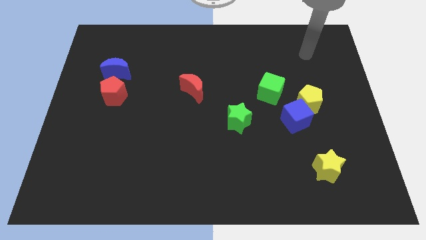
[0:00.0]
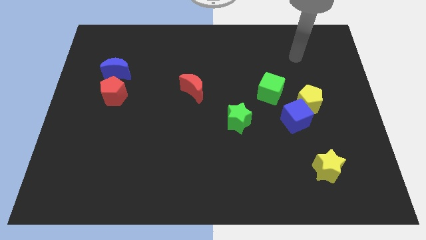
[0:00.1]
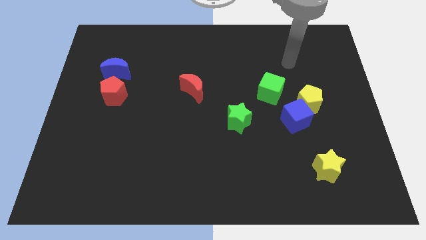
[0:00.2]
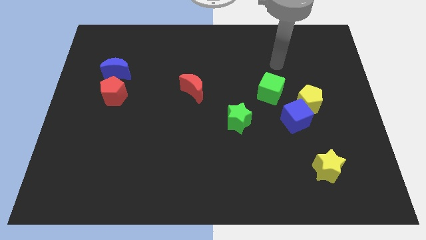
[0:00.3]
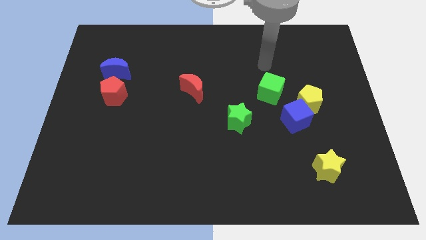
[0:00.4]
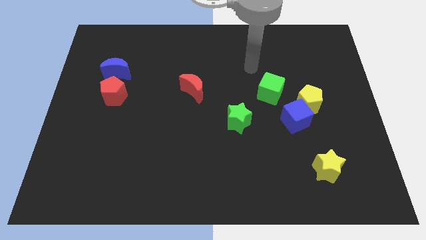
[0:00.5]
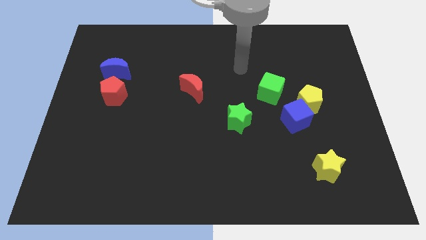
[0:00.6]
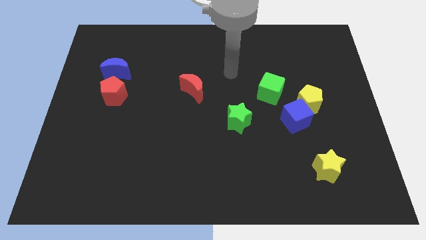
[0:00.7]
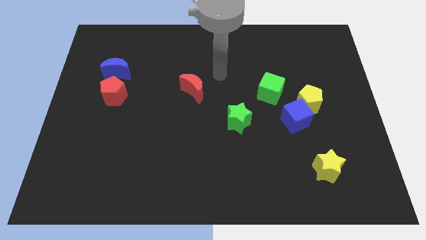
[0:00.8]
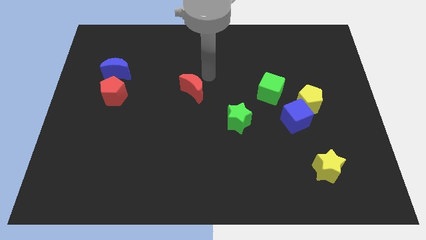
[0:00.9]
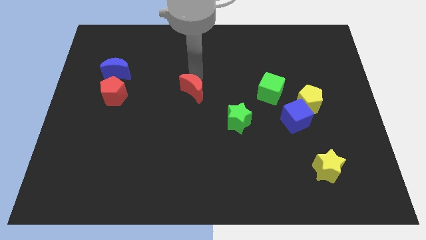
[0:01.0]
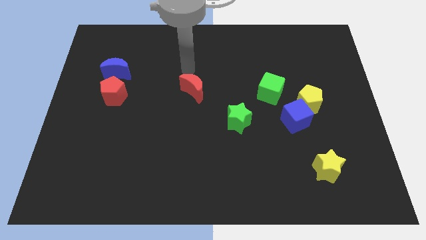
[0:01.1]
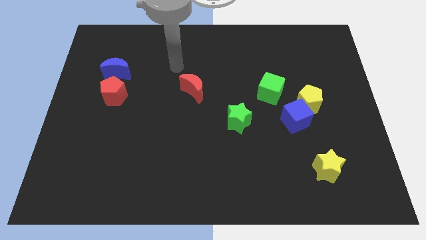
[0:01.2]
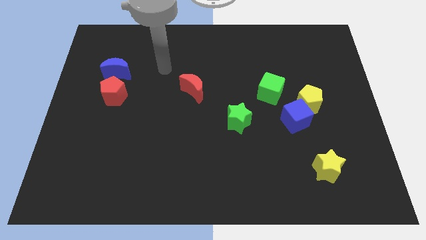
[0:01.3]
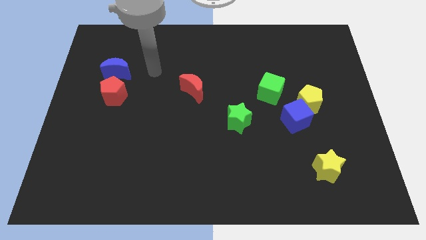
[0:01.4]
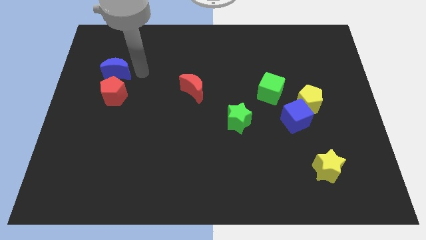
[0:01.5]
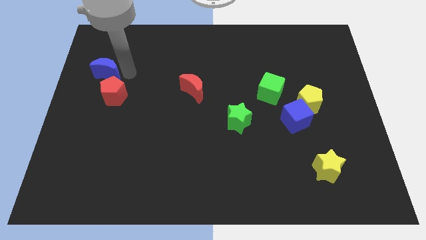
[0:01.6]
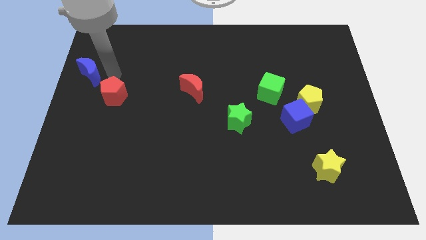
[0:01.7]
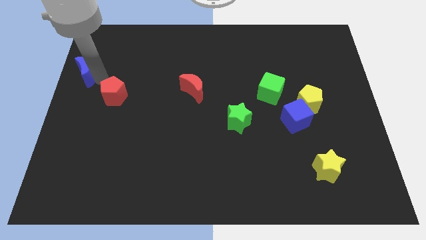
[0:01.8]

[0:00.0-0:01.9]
separate the red pentagon from the blue moon

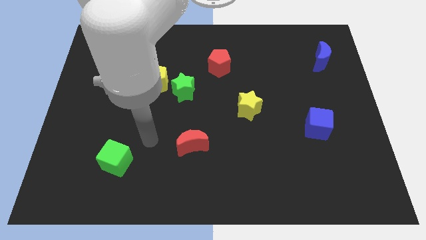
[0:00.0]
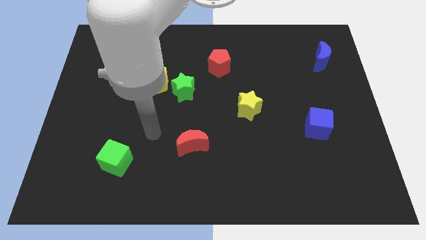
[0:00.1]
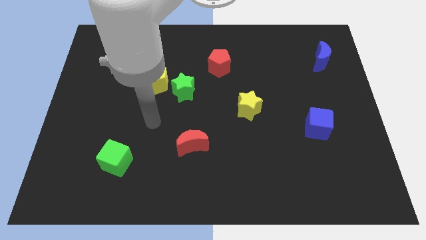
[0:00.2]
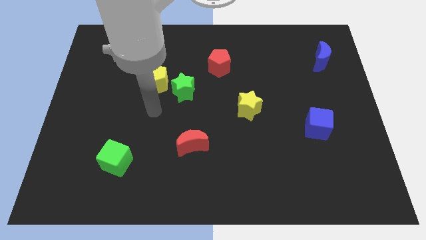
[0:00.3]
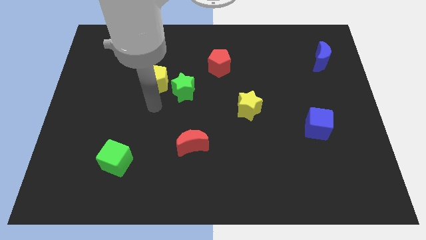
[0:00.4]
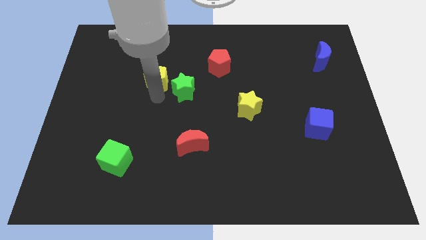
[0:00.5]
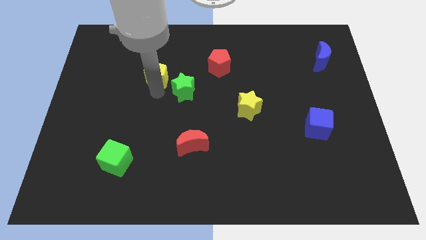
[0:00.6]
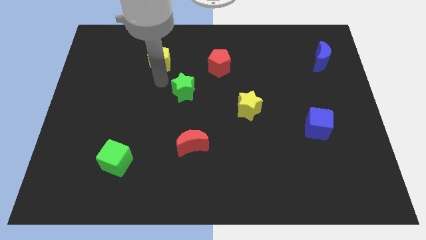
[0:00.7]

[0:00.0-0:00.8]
separate the green star from the yellow pentagon

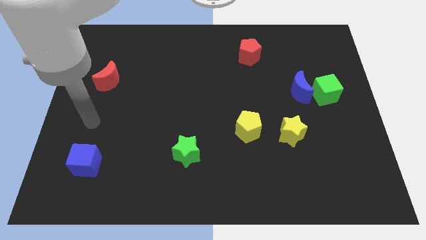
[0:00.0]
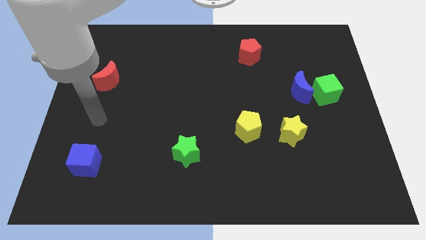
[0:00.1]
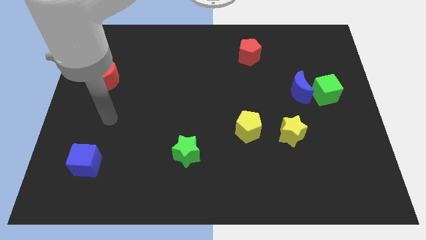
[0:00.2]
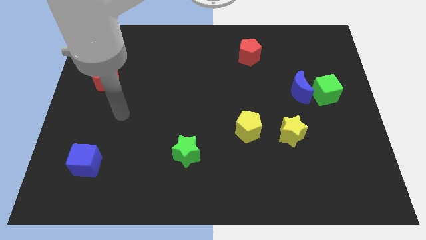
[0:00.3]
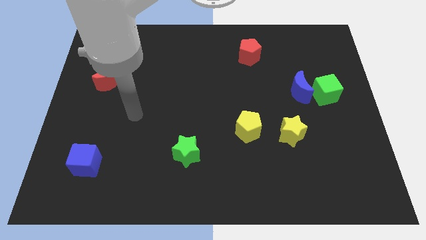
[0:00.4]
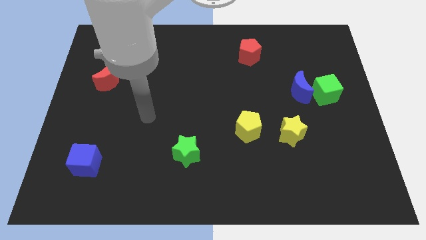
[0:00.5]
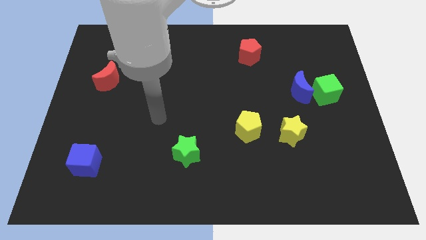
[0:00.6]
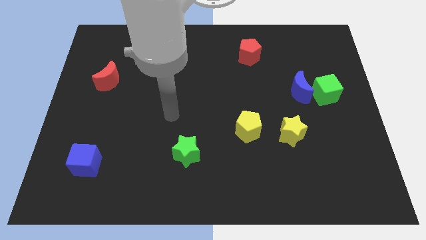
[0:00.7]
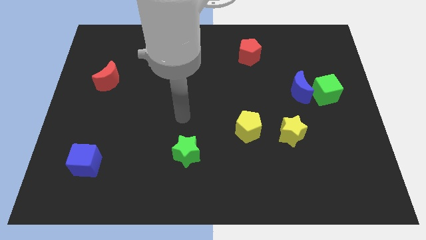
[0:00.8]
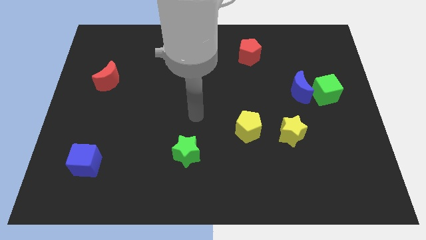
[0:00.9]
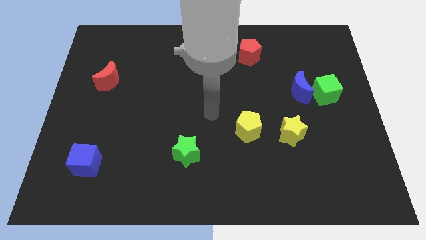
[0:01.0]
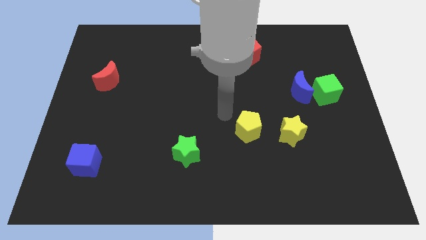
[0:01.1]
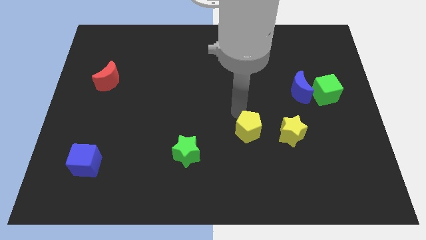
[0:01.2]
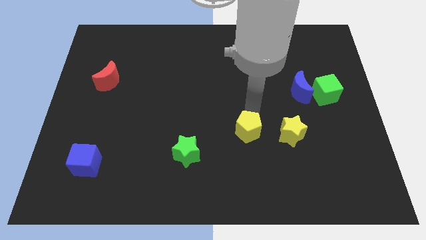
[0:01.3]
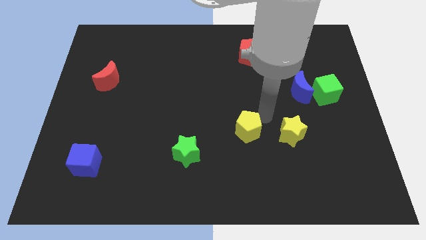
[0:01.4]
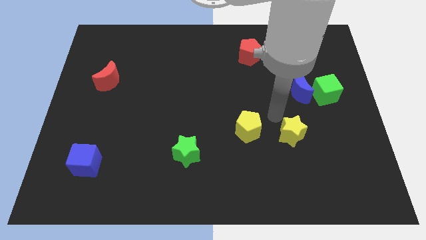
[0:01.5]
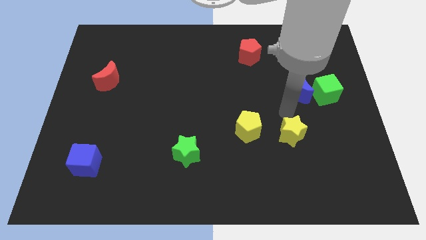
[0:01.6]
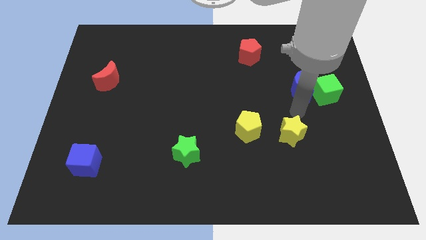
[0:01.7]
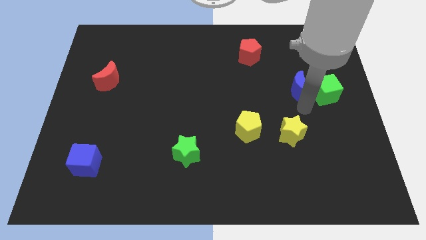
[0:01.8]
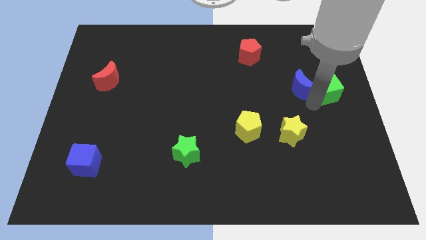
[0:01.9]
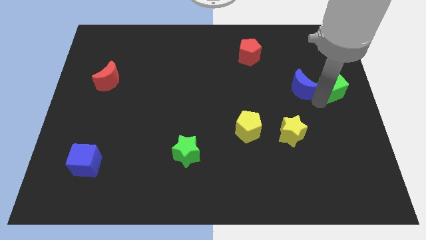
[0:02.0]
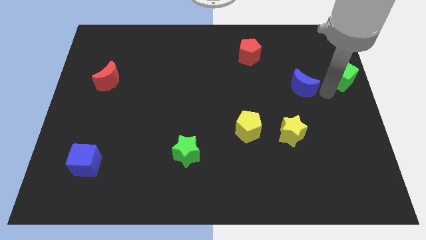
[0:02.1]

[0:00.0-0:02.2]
separate the blue moon from the green cube

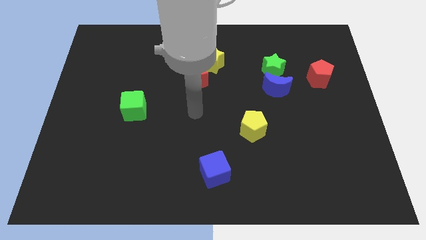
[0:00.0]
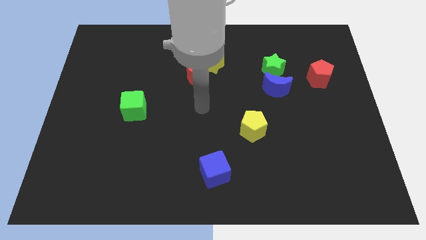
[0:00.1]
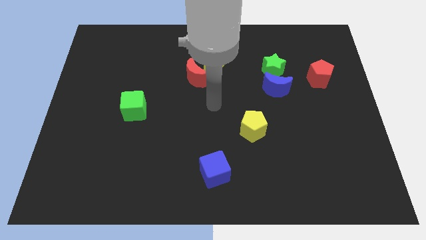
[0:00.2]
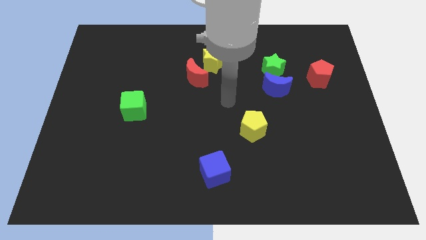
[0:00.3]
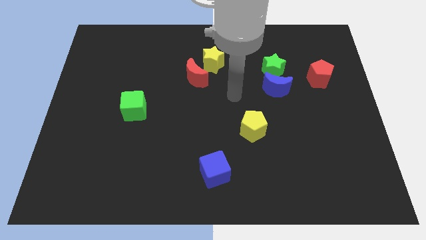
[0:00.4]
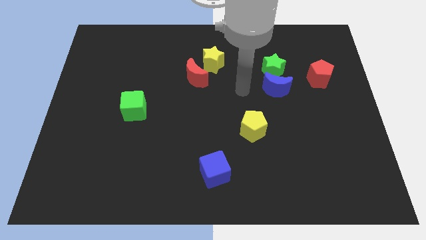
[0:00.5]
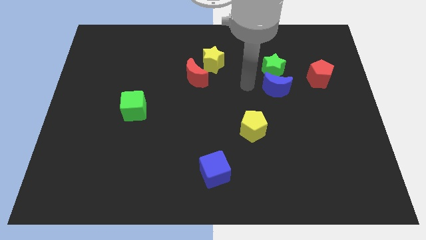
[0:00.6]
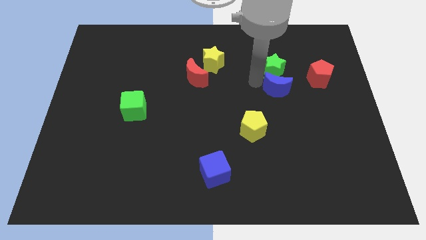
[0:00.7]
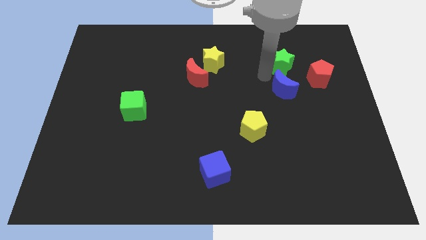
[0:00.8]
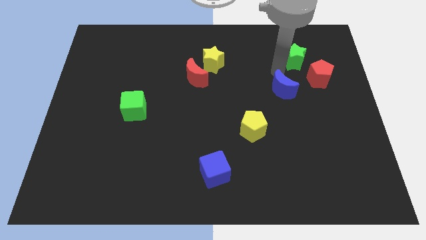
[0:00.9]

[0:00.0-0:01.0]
separate the blue moon from the green star

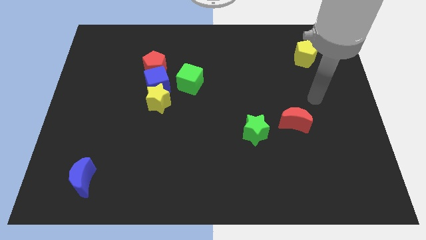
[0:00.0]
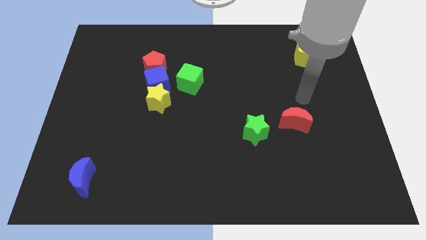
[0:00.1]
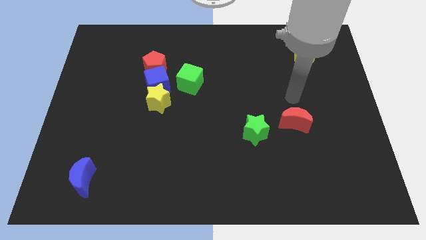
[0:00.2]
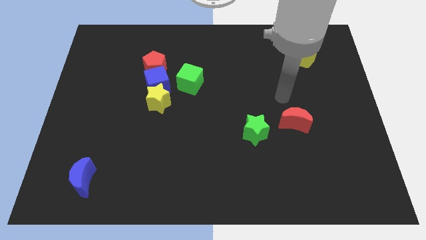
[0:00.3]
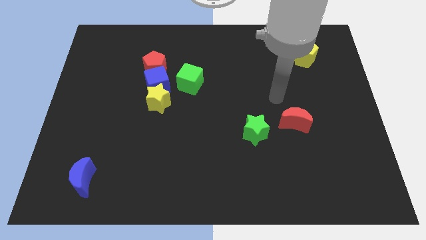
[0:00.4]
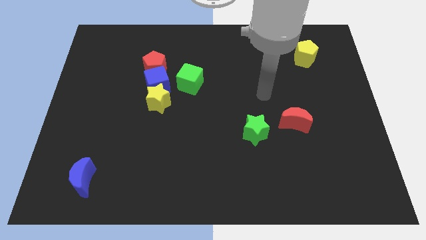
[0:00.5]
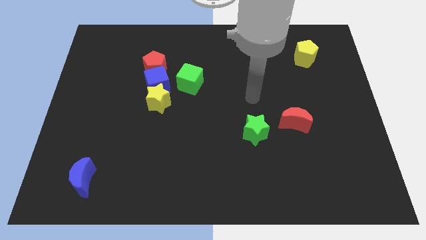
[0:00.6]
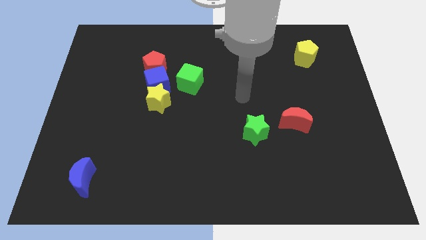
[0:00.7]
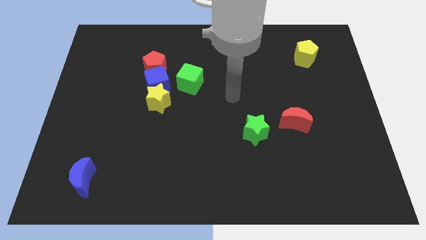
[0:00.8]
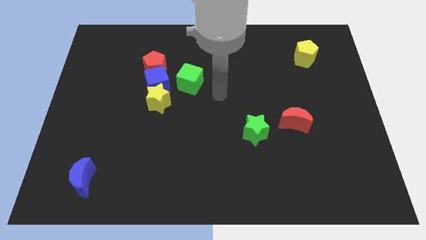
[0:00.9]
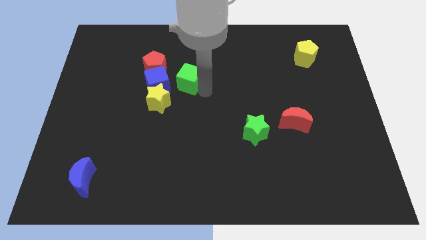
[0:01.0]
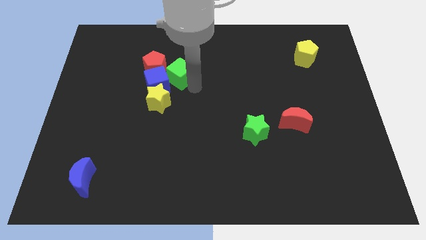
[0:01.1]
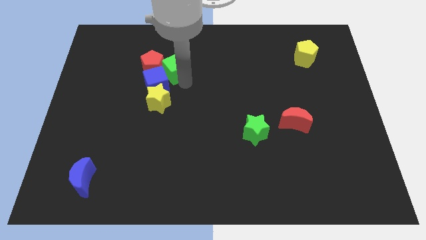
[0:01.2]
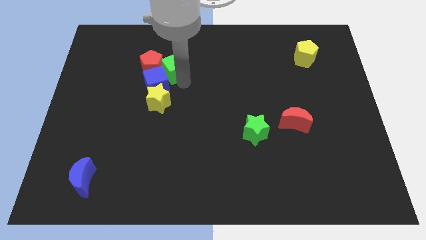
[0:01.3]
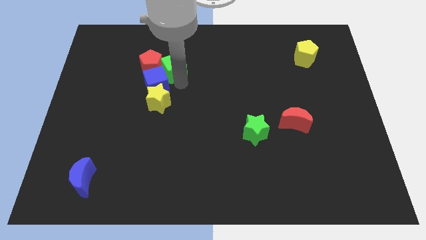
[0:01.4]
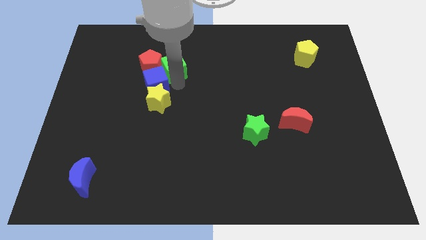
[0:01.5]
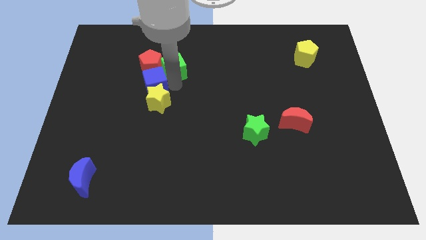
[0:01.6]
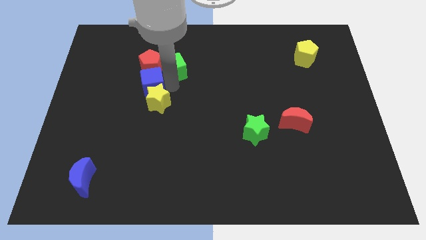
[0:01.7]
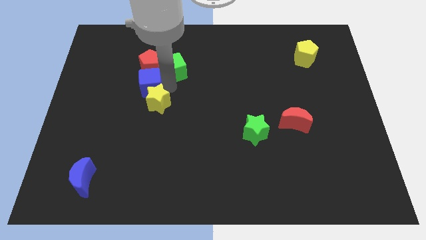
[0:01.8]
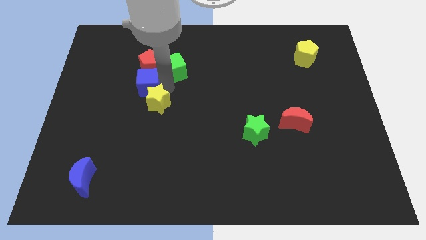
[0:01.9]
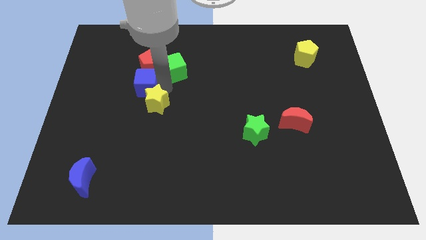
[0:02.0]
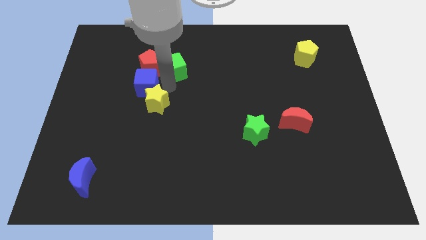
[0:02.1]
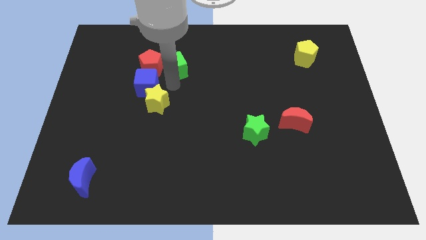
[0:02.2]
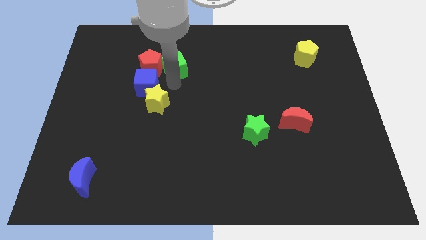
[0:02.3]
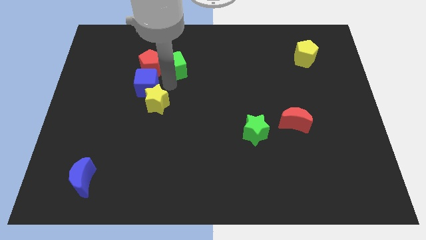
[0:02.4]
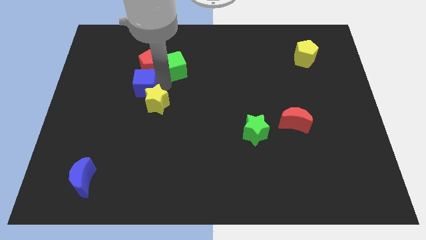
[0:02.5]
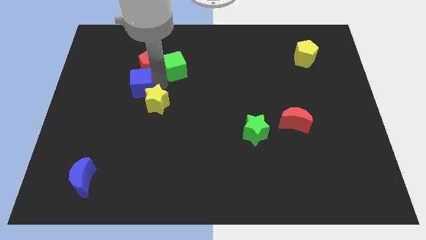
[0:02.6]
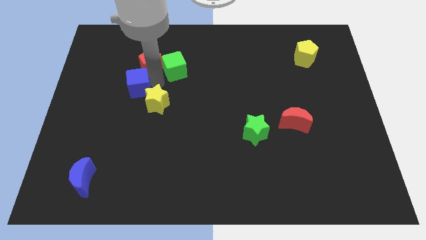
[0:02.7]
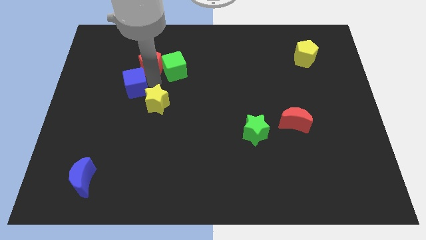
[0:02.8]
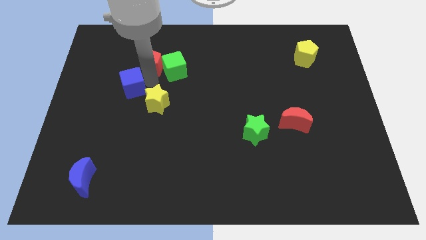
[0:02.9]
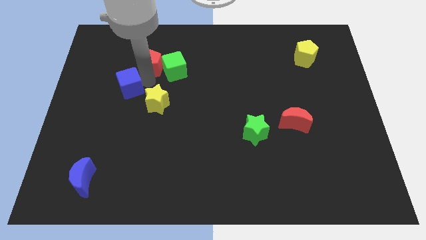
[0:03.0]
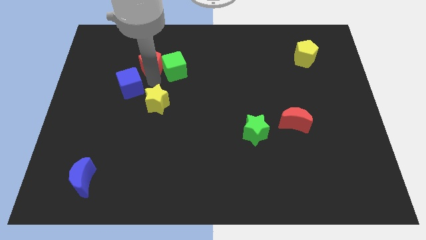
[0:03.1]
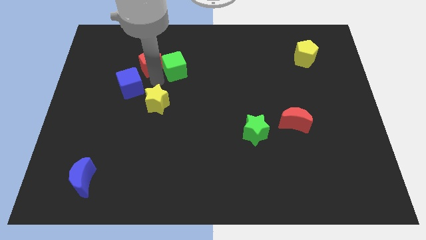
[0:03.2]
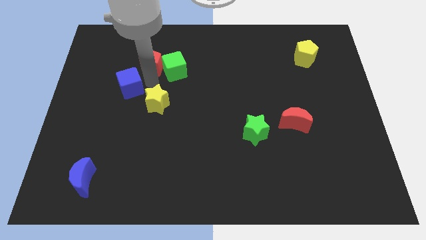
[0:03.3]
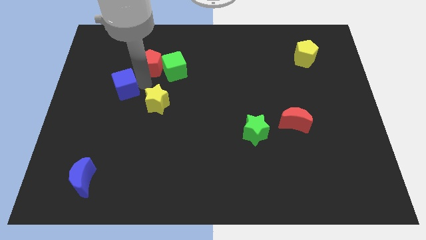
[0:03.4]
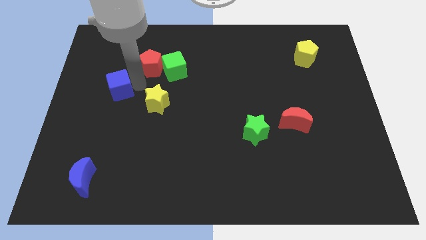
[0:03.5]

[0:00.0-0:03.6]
separate the blue cube from the group of blocks
